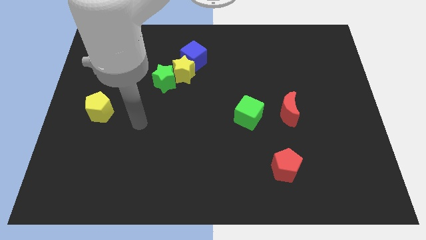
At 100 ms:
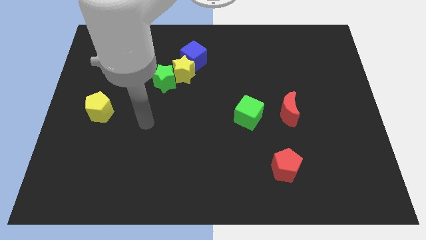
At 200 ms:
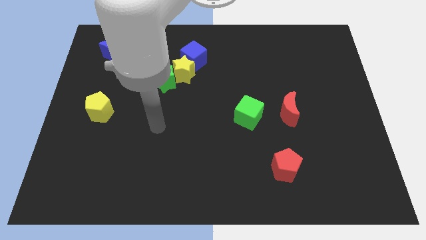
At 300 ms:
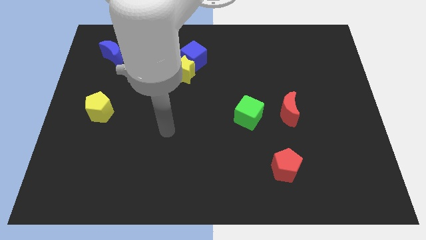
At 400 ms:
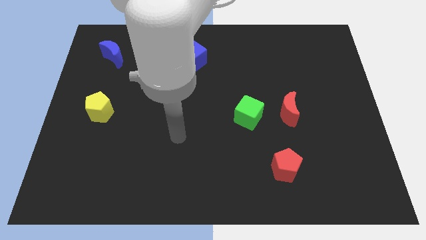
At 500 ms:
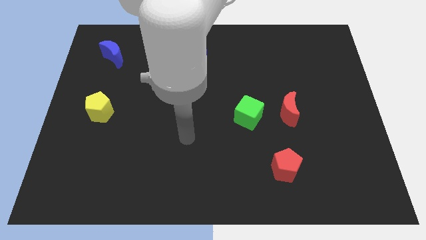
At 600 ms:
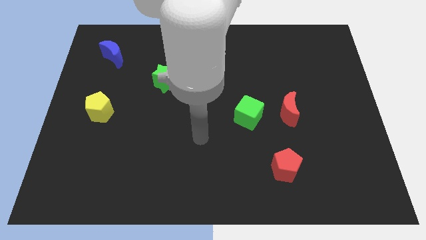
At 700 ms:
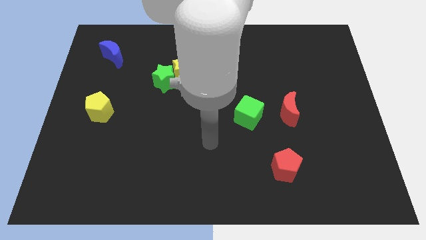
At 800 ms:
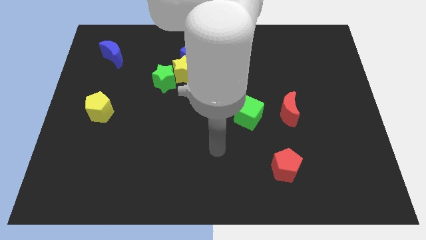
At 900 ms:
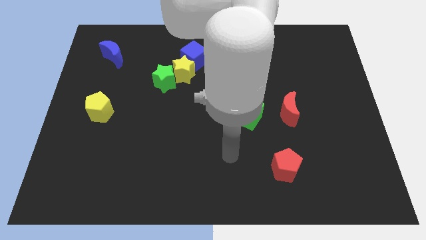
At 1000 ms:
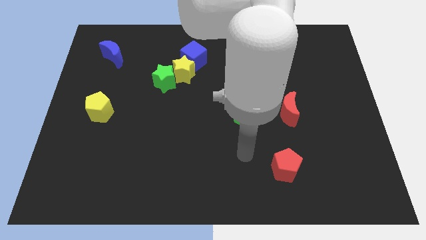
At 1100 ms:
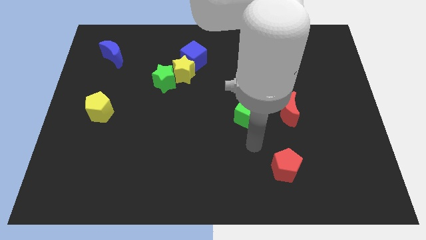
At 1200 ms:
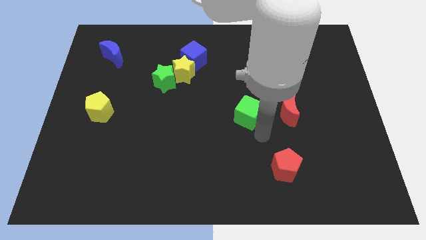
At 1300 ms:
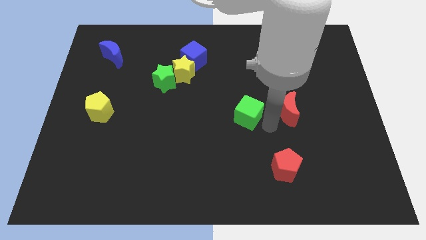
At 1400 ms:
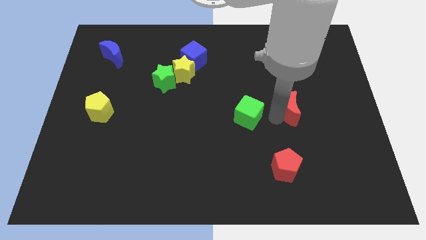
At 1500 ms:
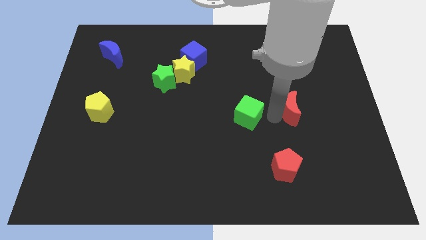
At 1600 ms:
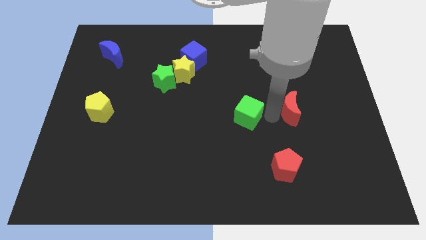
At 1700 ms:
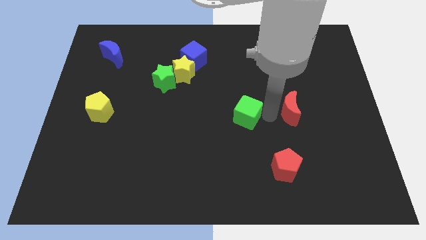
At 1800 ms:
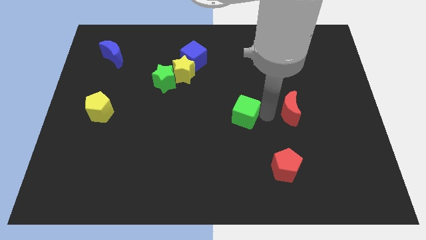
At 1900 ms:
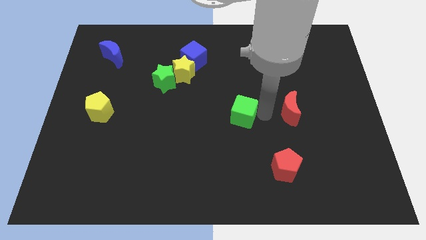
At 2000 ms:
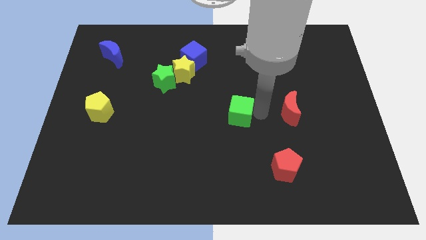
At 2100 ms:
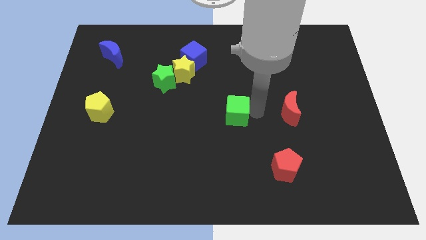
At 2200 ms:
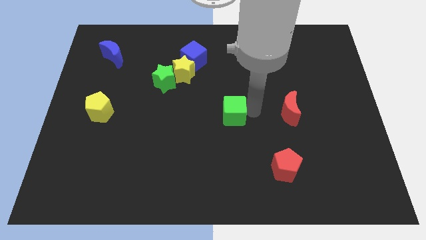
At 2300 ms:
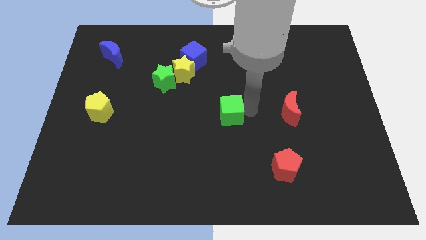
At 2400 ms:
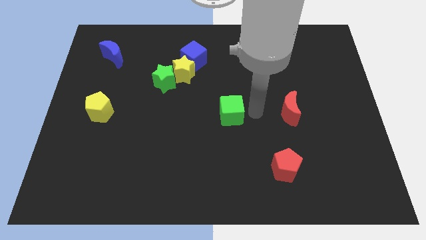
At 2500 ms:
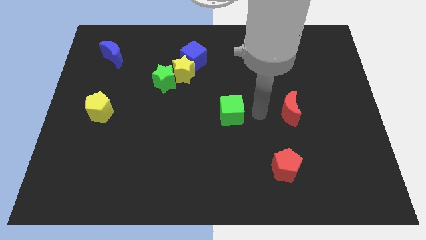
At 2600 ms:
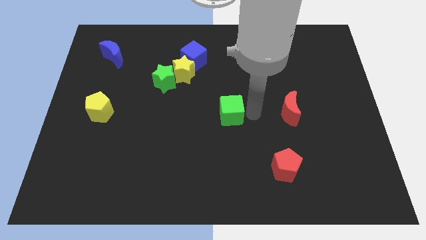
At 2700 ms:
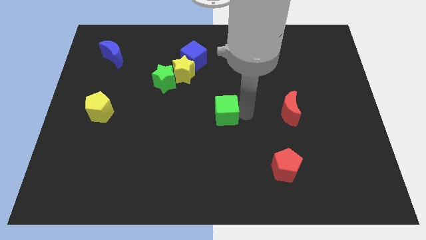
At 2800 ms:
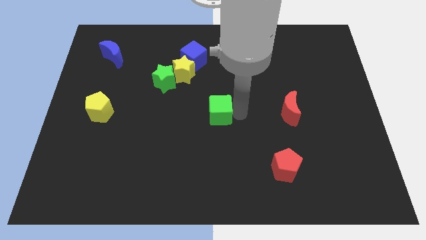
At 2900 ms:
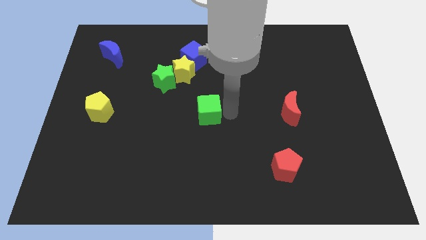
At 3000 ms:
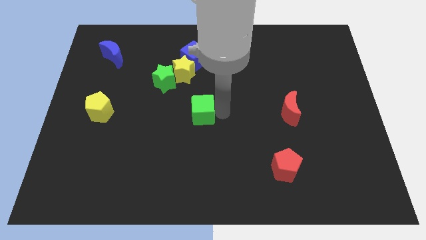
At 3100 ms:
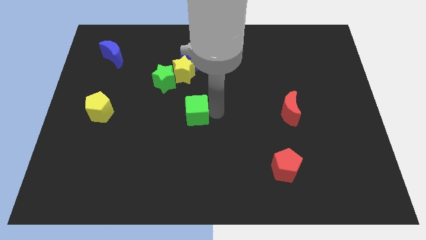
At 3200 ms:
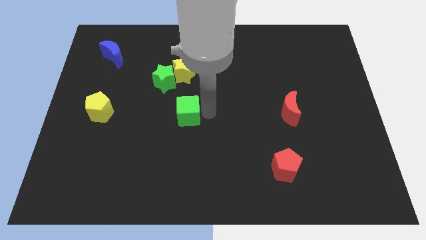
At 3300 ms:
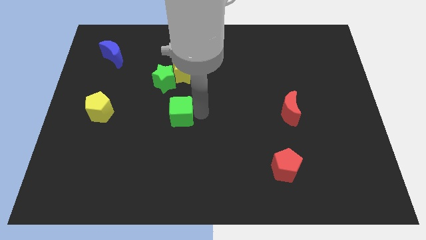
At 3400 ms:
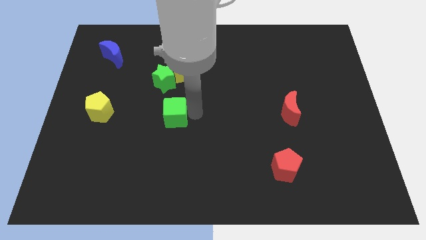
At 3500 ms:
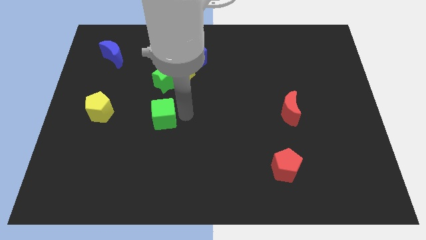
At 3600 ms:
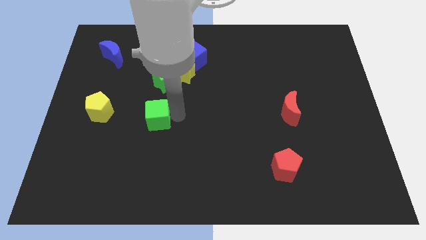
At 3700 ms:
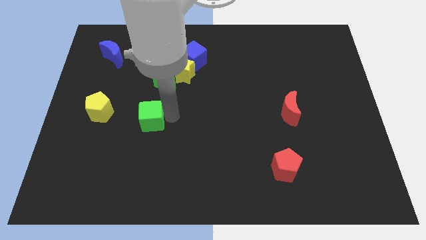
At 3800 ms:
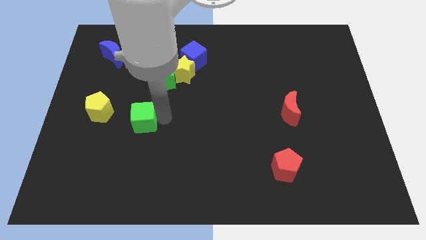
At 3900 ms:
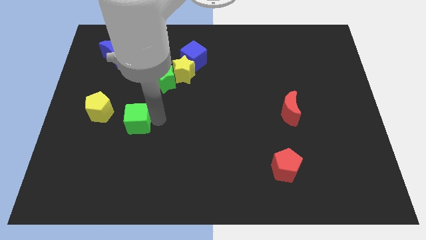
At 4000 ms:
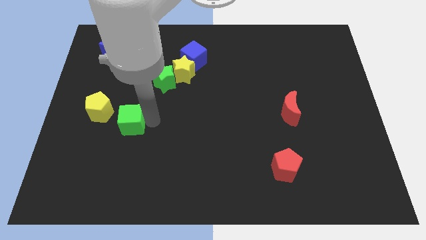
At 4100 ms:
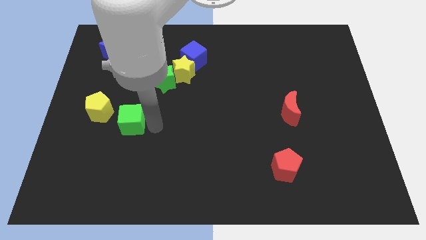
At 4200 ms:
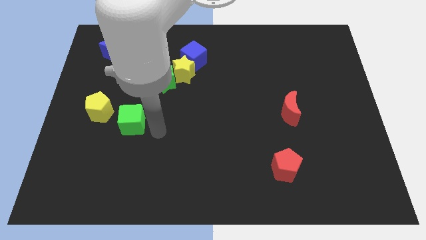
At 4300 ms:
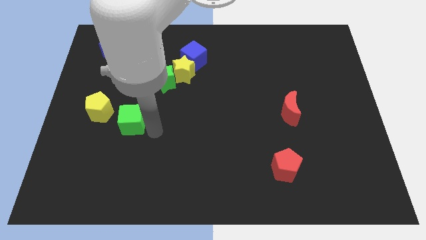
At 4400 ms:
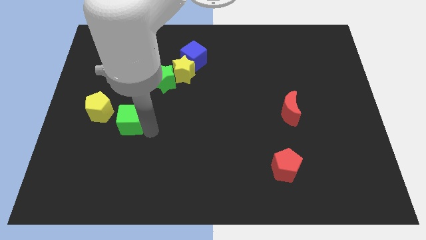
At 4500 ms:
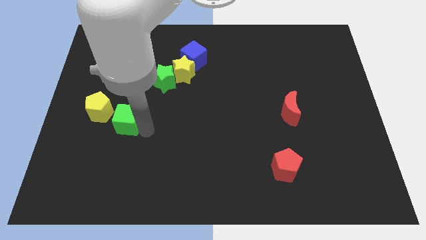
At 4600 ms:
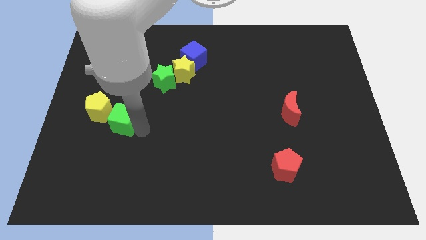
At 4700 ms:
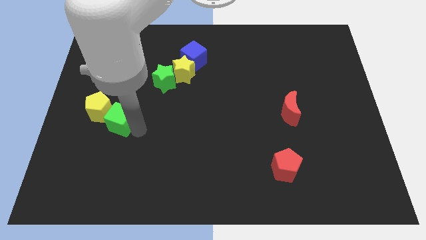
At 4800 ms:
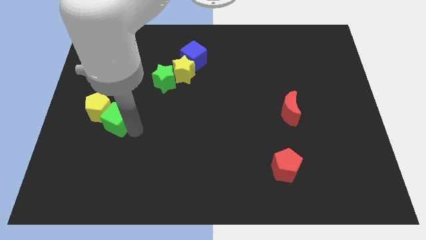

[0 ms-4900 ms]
move the green cube next to the yellow pentagon

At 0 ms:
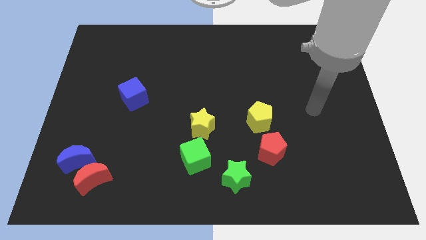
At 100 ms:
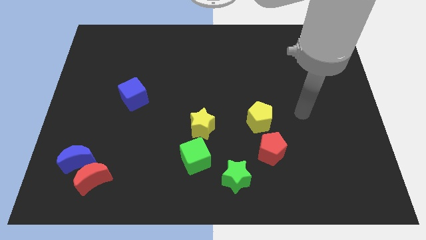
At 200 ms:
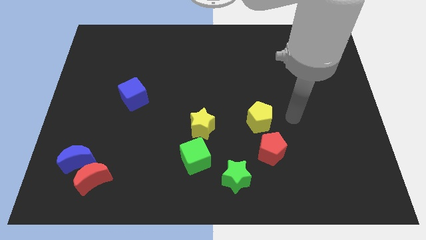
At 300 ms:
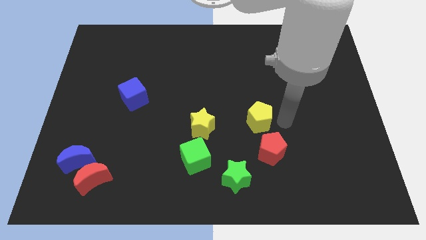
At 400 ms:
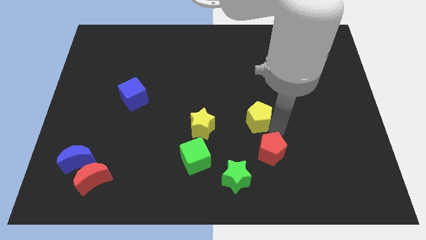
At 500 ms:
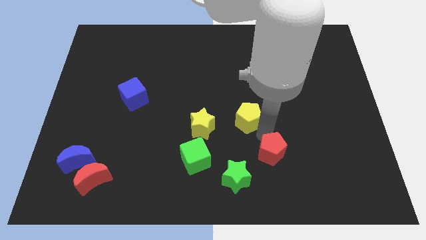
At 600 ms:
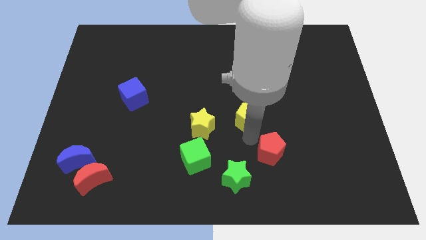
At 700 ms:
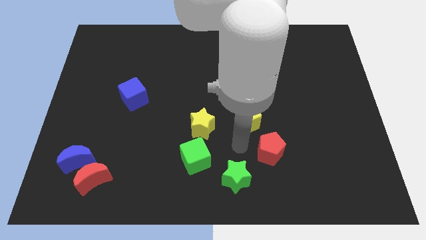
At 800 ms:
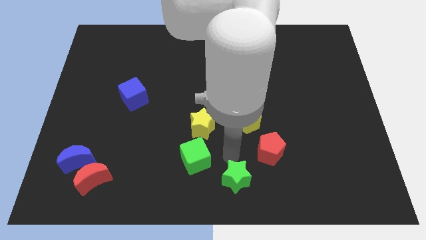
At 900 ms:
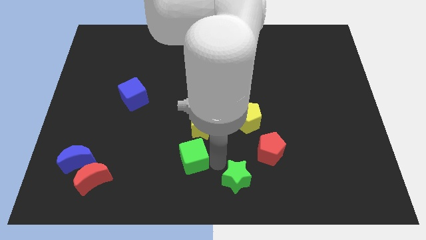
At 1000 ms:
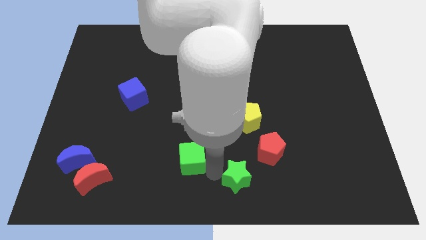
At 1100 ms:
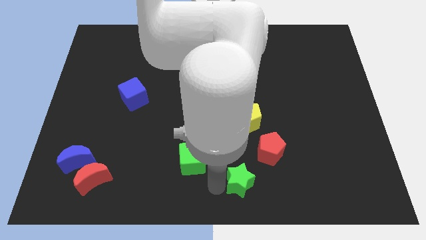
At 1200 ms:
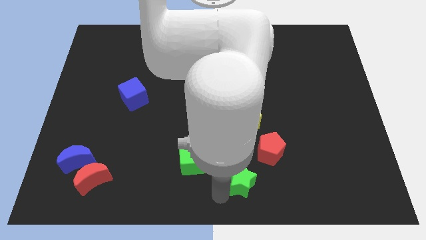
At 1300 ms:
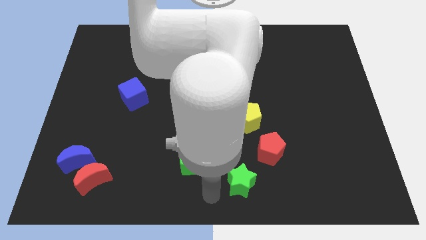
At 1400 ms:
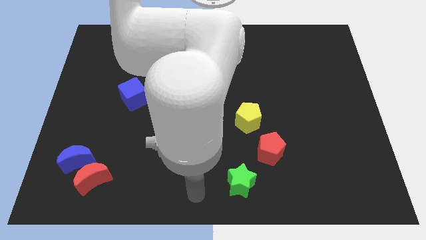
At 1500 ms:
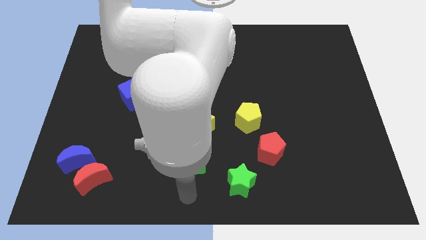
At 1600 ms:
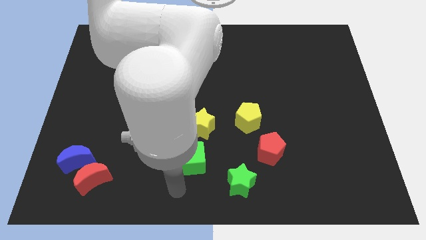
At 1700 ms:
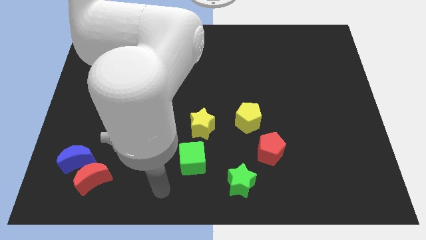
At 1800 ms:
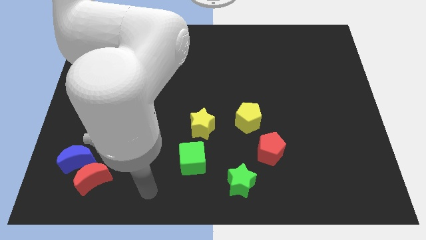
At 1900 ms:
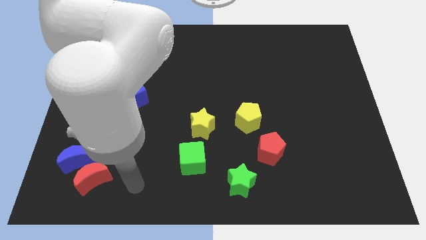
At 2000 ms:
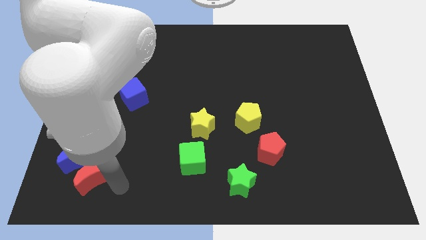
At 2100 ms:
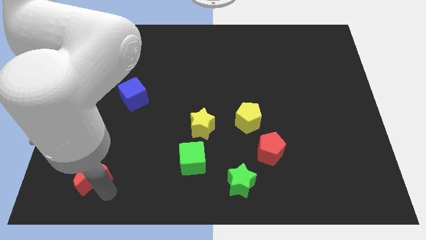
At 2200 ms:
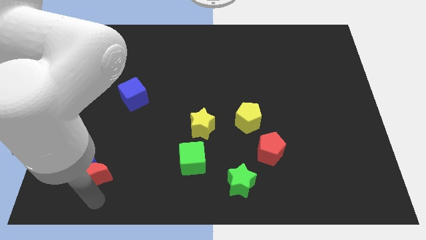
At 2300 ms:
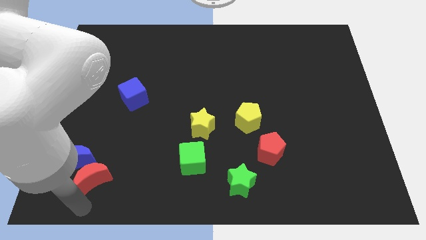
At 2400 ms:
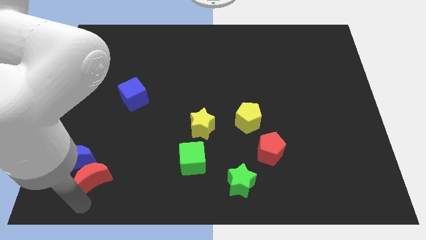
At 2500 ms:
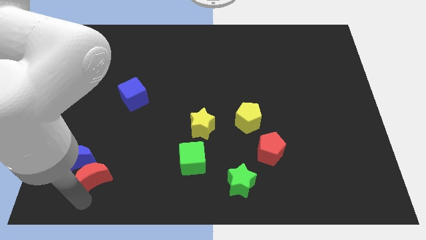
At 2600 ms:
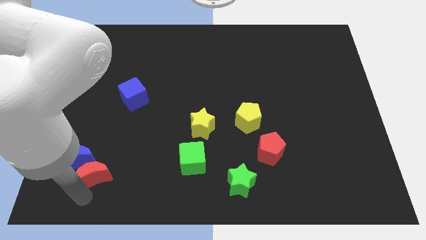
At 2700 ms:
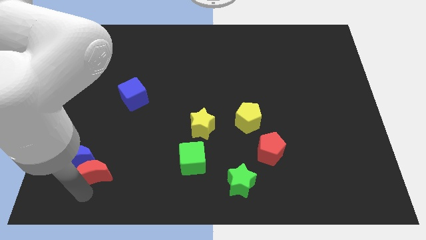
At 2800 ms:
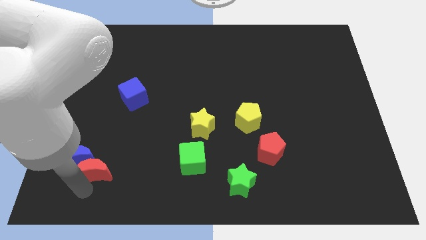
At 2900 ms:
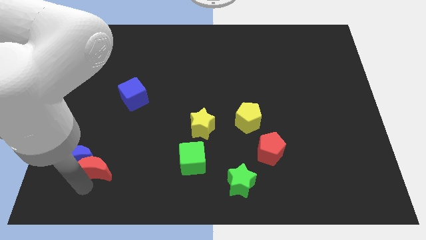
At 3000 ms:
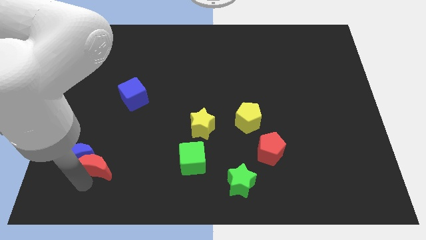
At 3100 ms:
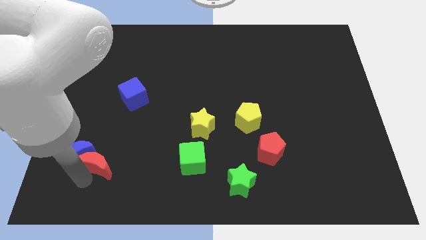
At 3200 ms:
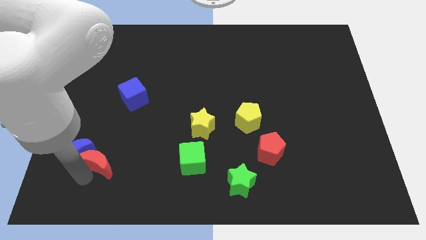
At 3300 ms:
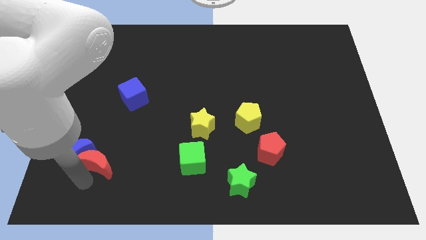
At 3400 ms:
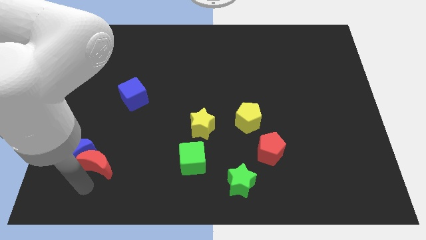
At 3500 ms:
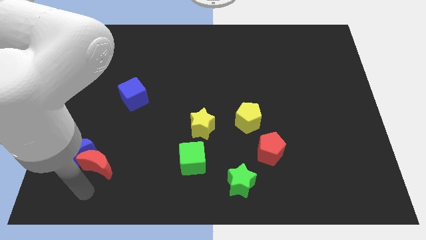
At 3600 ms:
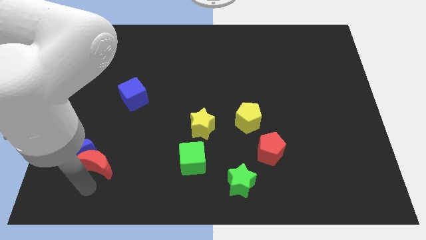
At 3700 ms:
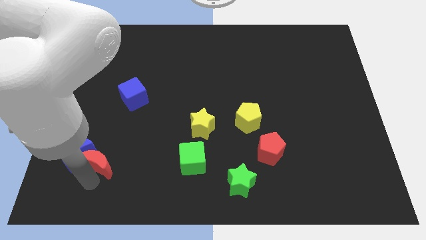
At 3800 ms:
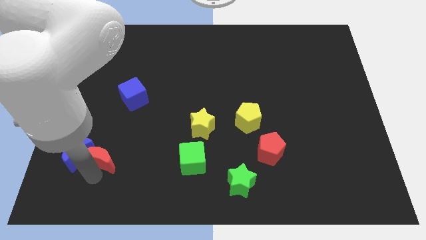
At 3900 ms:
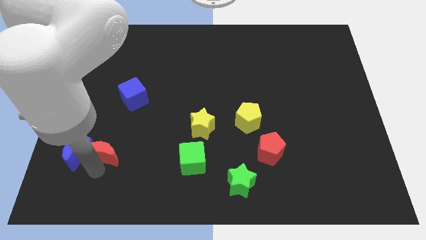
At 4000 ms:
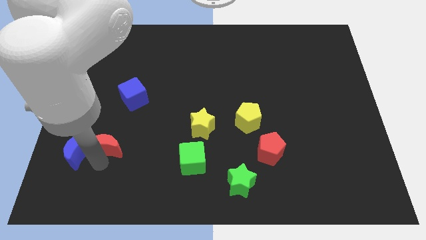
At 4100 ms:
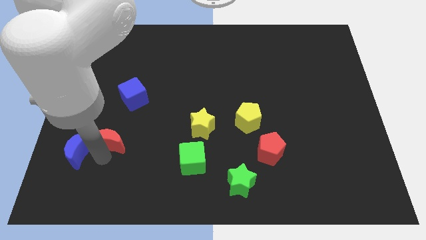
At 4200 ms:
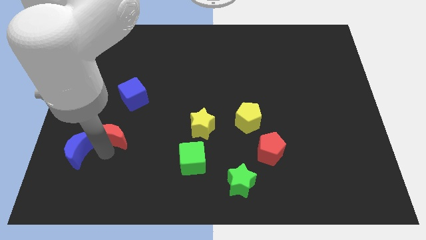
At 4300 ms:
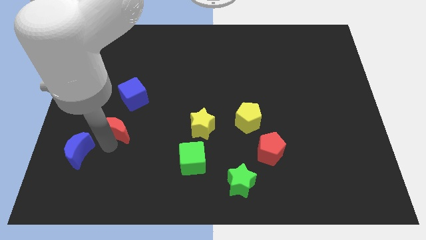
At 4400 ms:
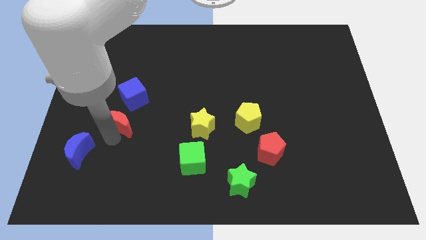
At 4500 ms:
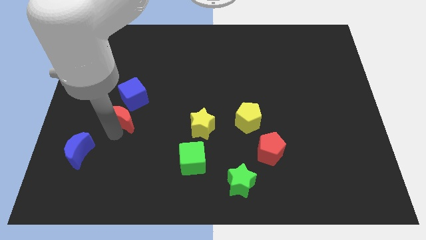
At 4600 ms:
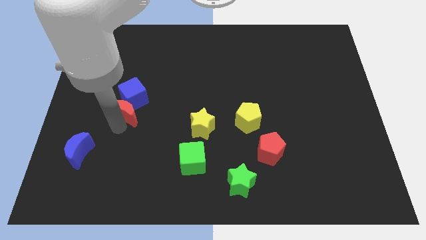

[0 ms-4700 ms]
put the red moon towards the blue cube
